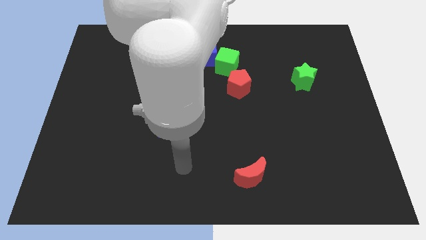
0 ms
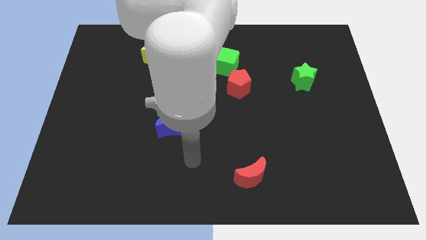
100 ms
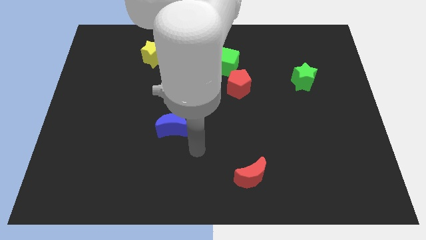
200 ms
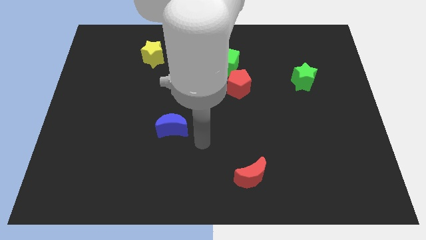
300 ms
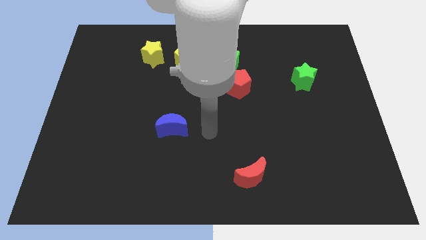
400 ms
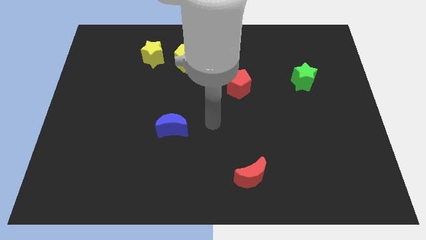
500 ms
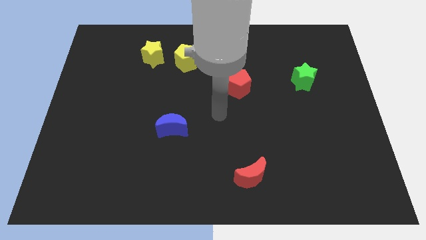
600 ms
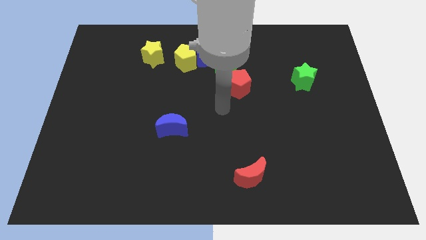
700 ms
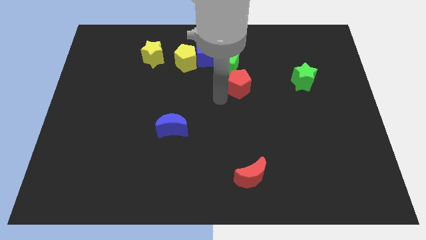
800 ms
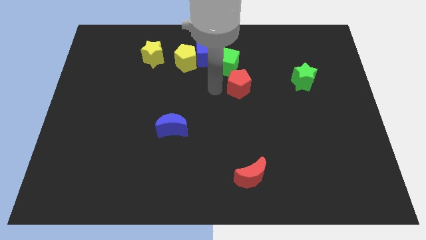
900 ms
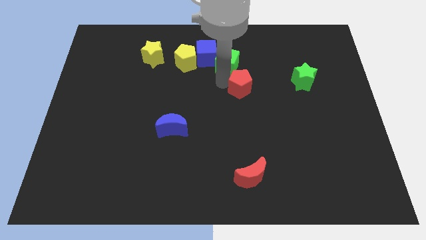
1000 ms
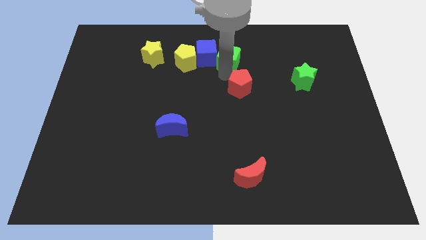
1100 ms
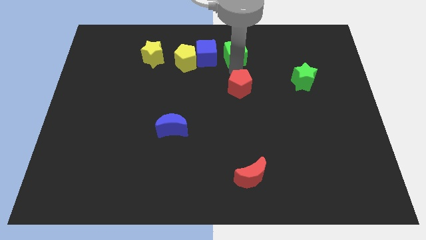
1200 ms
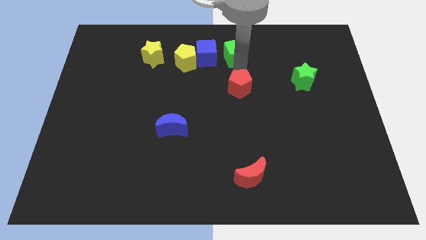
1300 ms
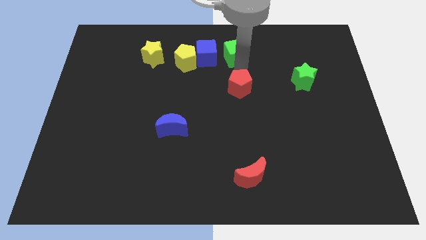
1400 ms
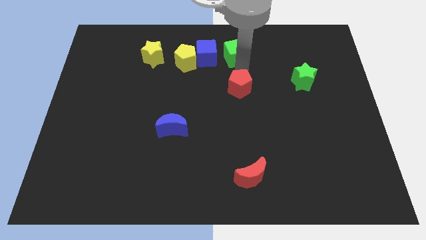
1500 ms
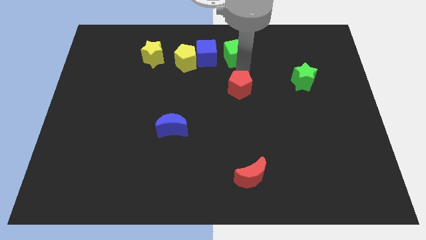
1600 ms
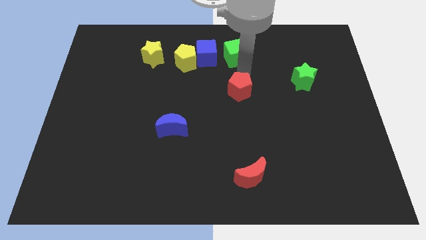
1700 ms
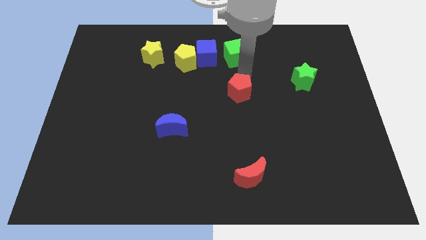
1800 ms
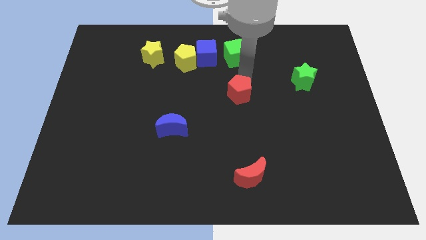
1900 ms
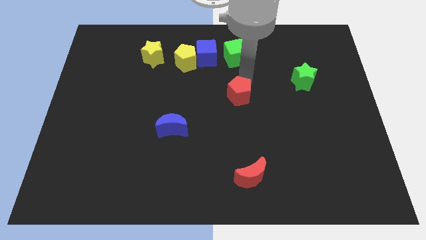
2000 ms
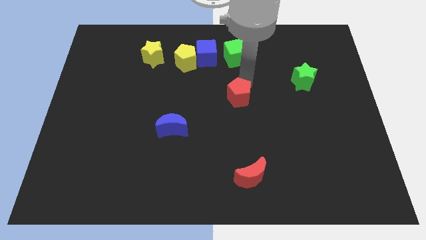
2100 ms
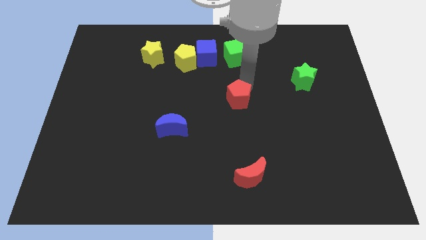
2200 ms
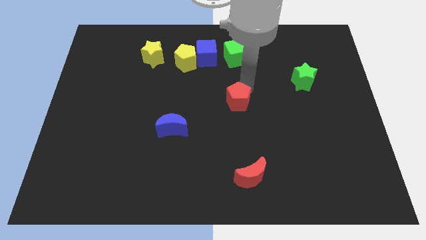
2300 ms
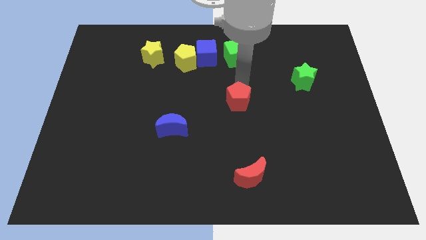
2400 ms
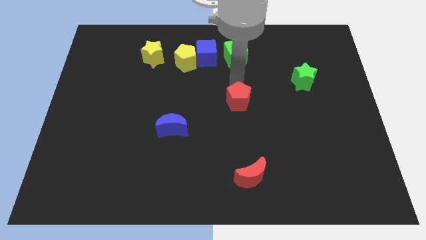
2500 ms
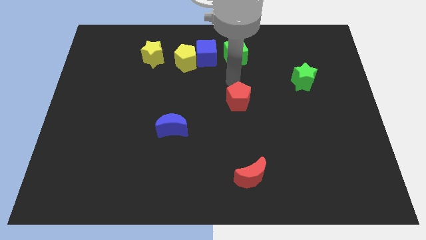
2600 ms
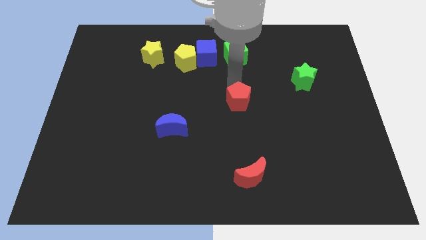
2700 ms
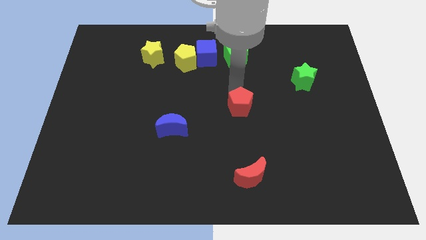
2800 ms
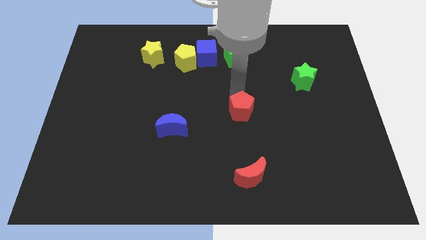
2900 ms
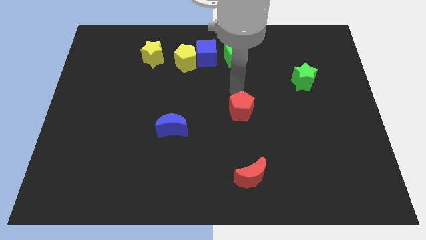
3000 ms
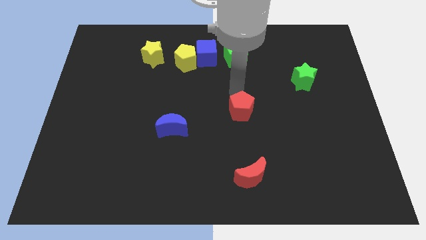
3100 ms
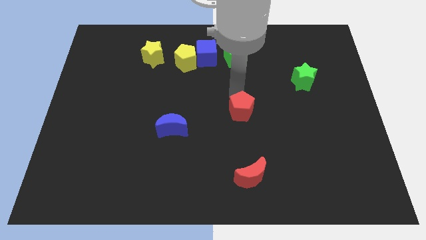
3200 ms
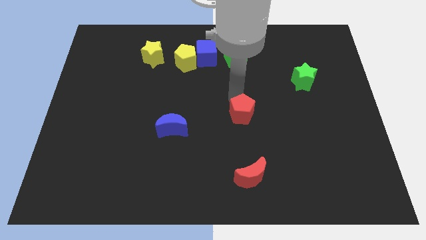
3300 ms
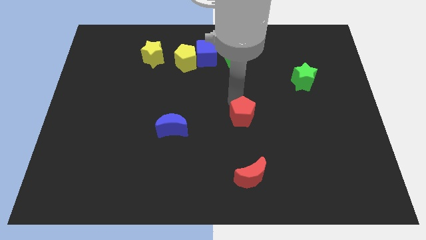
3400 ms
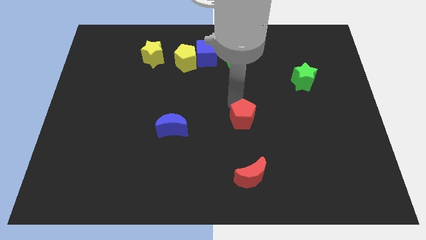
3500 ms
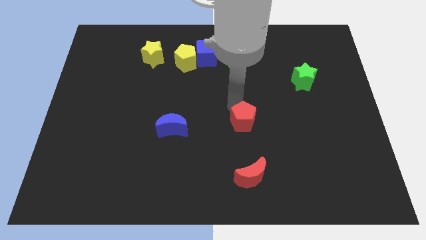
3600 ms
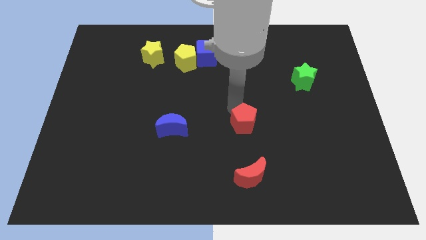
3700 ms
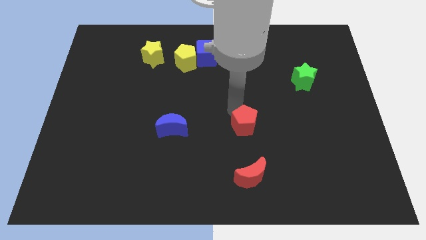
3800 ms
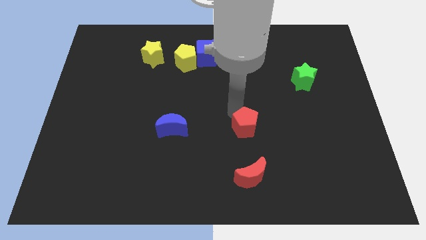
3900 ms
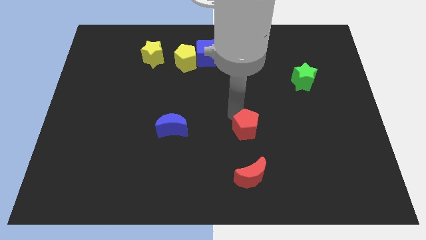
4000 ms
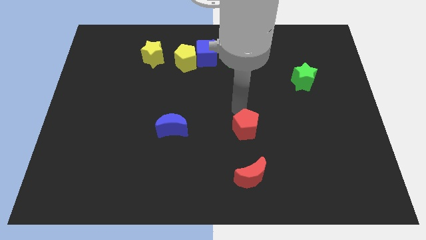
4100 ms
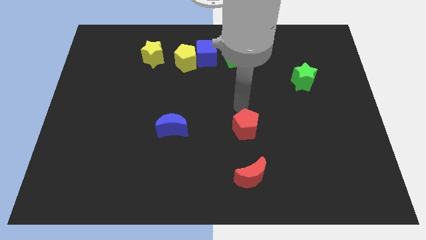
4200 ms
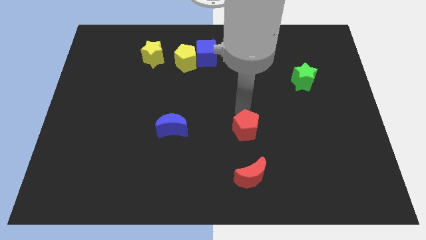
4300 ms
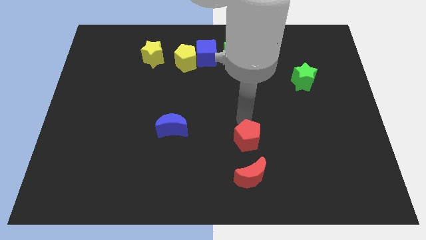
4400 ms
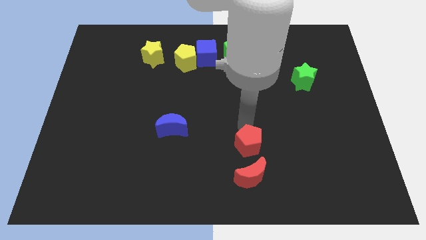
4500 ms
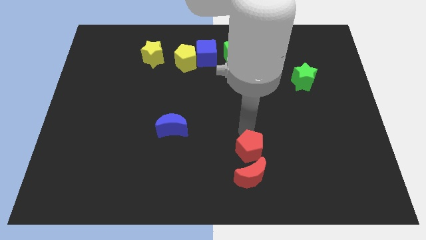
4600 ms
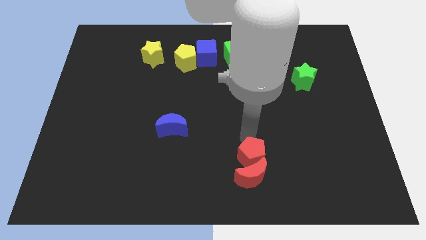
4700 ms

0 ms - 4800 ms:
move the red pentagon towards the red moon

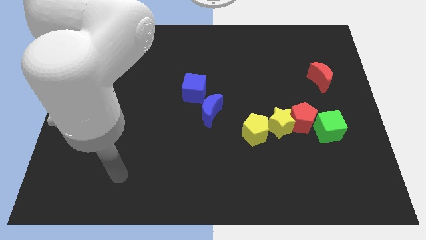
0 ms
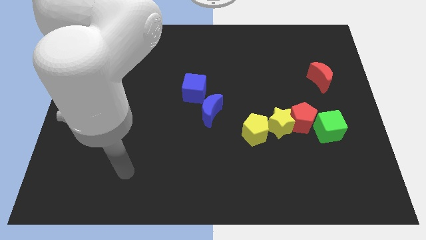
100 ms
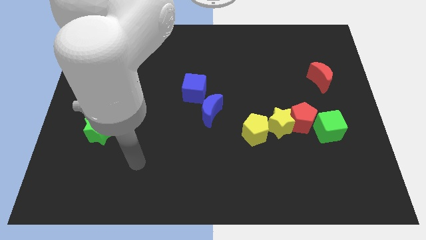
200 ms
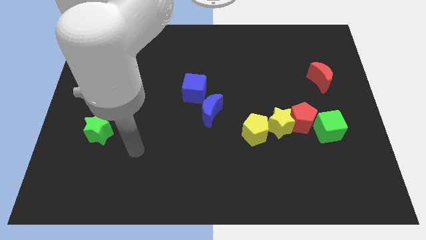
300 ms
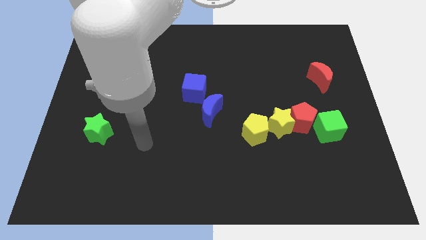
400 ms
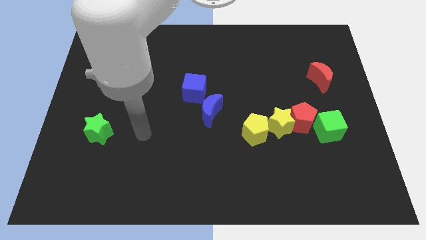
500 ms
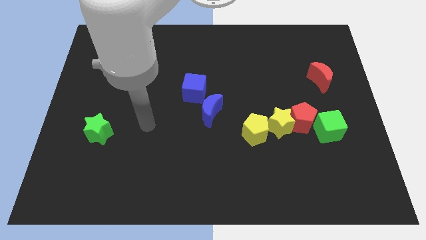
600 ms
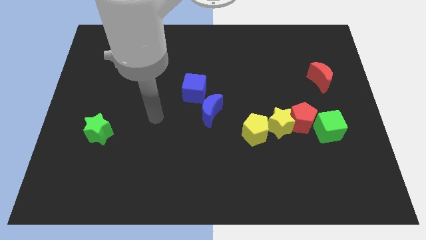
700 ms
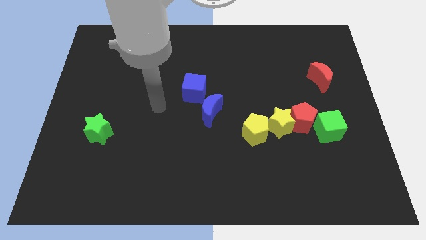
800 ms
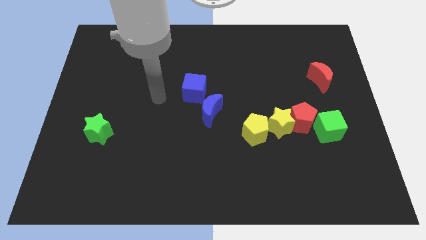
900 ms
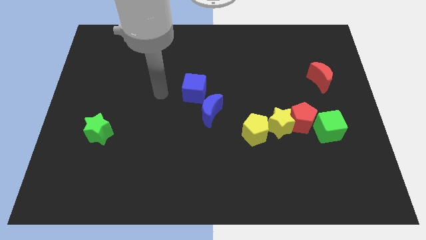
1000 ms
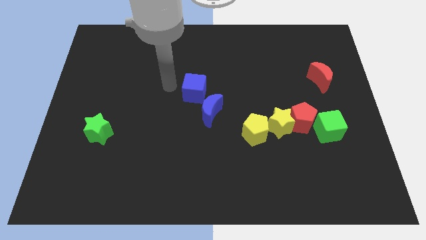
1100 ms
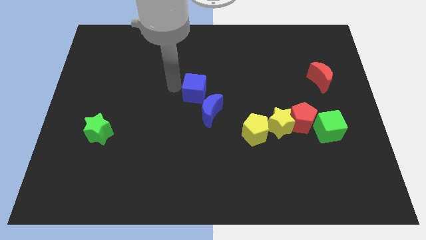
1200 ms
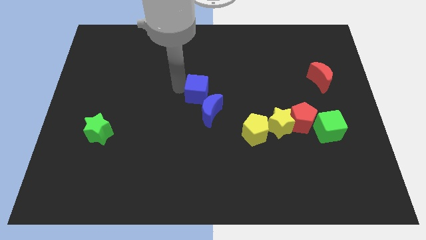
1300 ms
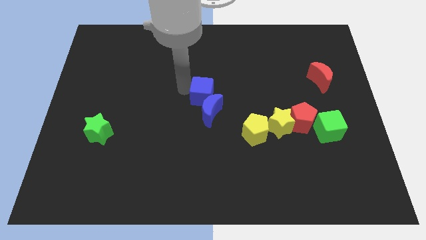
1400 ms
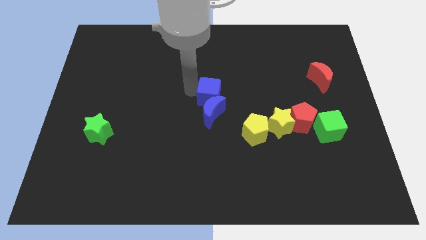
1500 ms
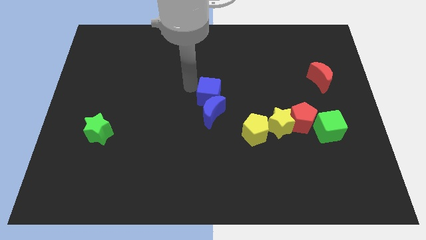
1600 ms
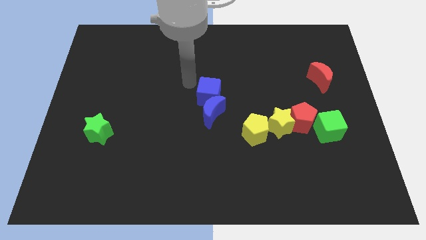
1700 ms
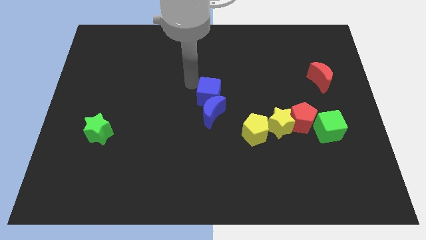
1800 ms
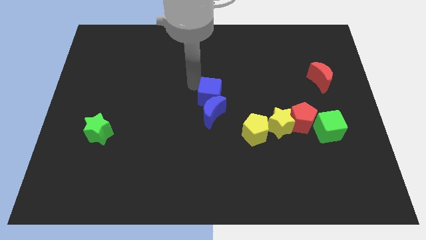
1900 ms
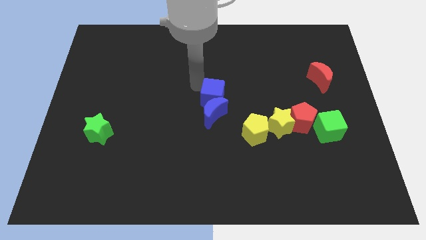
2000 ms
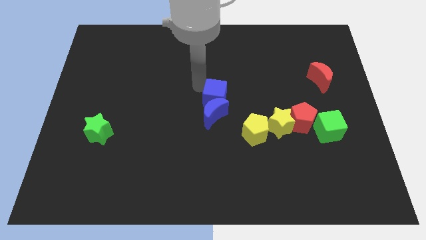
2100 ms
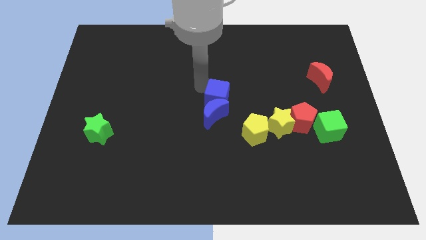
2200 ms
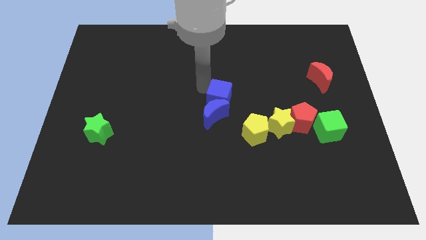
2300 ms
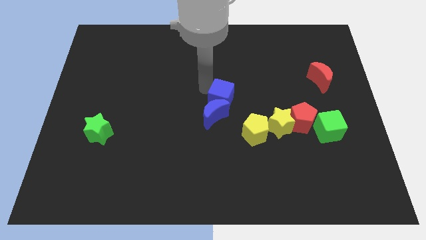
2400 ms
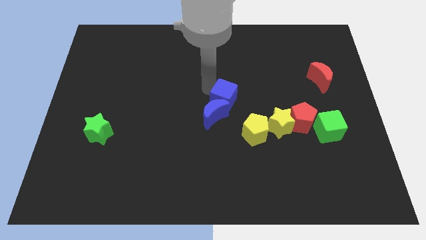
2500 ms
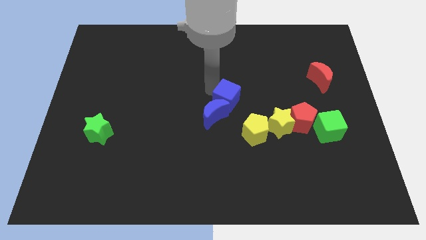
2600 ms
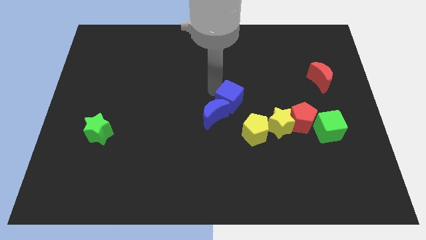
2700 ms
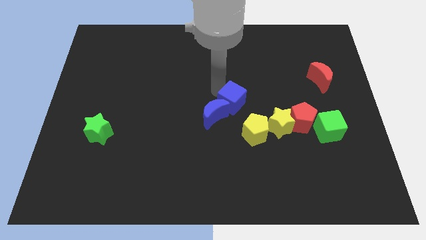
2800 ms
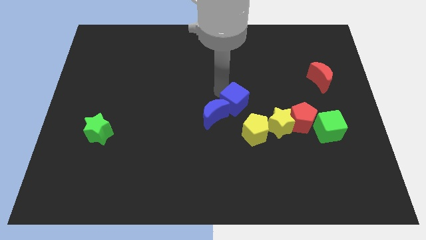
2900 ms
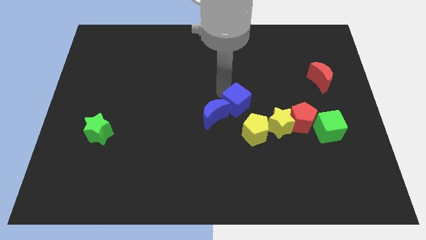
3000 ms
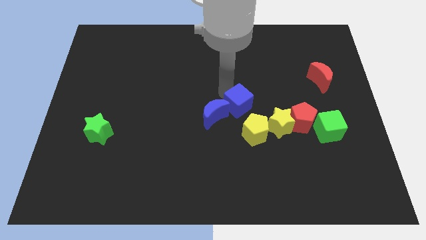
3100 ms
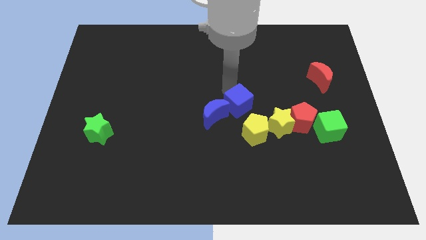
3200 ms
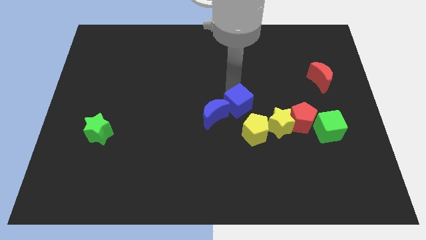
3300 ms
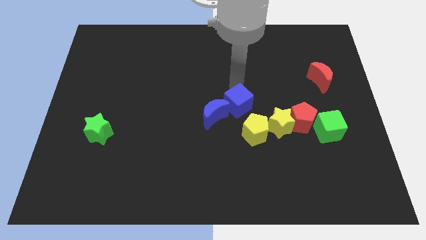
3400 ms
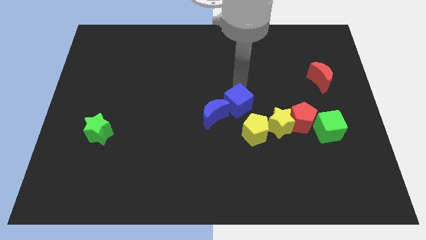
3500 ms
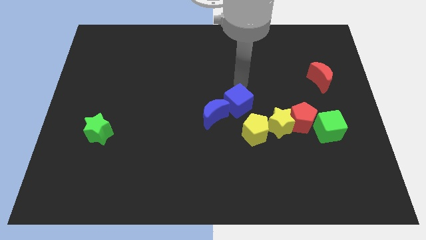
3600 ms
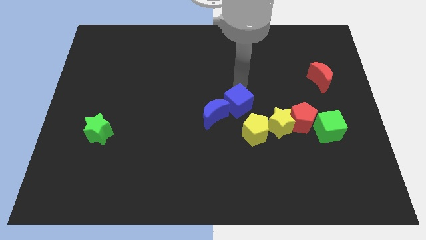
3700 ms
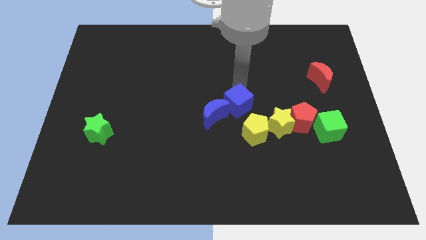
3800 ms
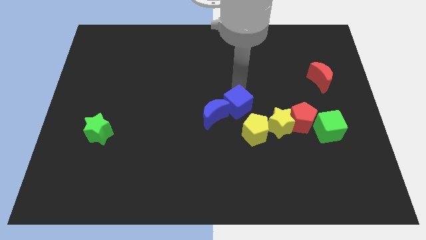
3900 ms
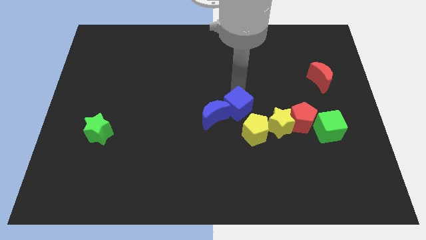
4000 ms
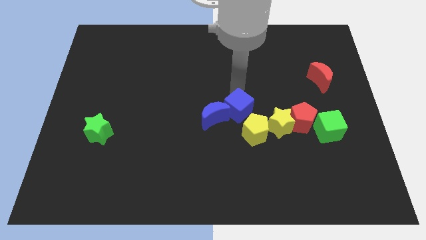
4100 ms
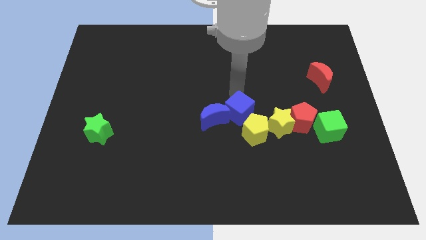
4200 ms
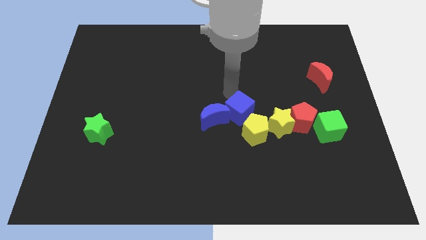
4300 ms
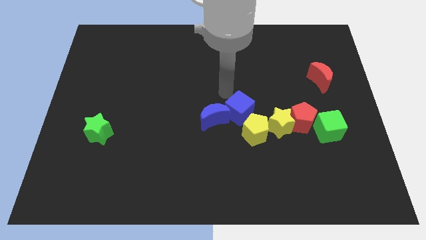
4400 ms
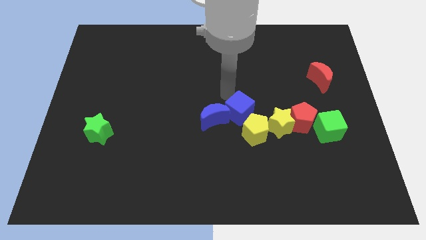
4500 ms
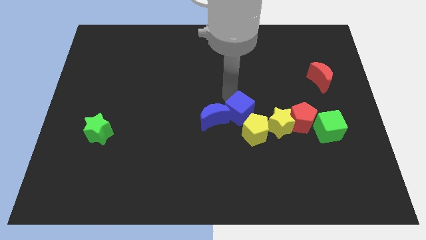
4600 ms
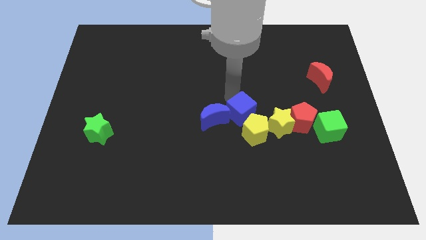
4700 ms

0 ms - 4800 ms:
put the blue cube to the yellow pentagon
